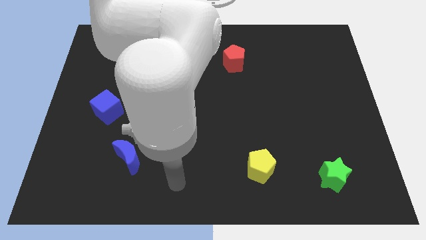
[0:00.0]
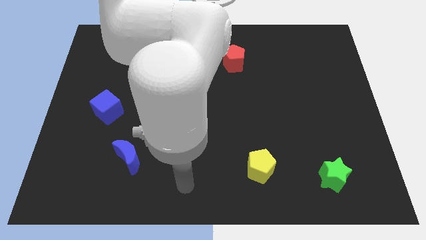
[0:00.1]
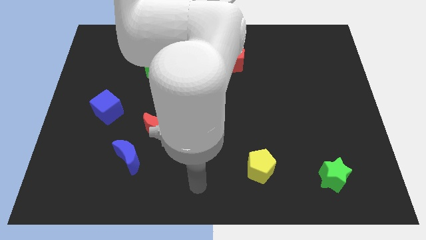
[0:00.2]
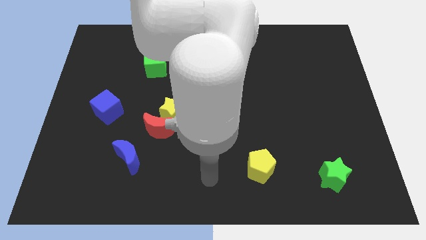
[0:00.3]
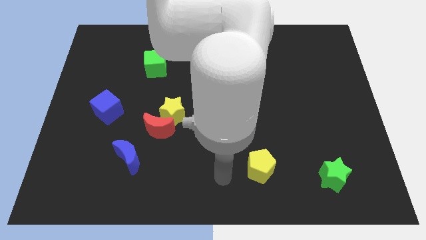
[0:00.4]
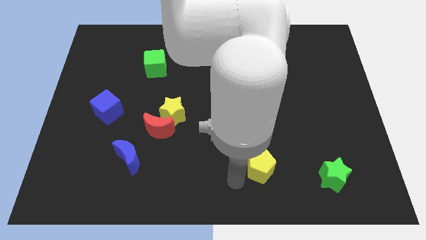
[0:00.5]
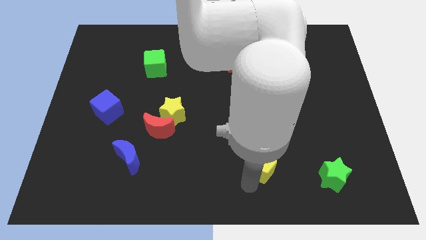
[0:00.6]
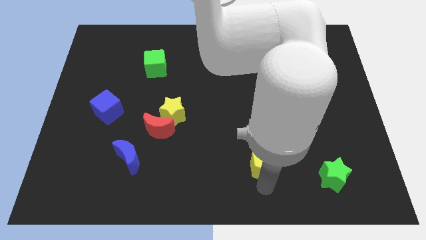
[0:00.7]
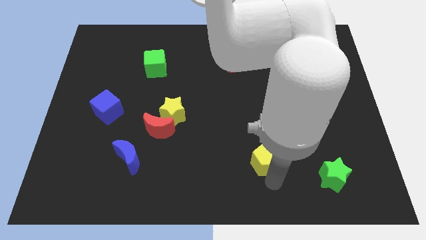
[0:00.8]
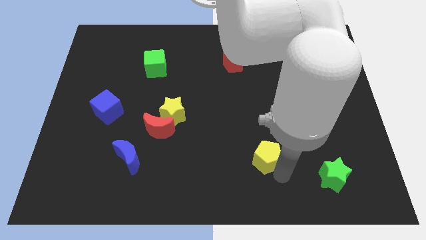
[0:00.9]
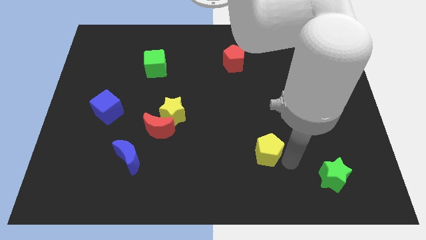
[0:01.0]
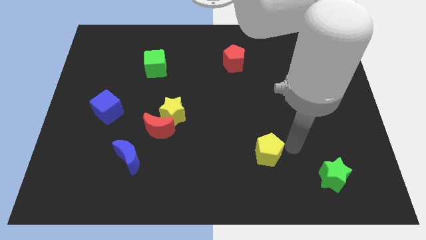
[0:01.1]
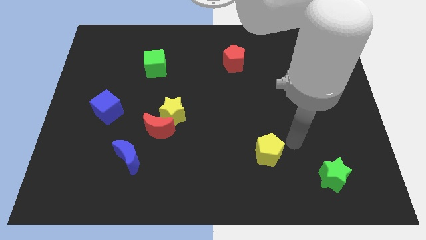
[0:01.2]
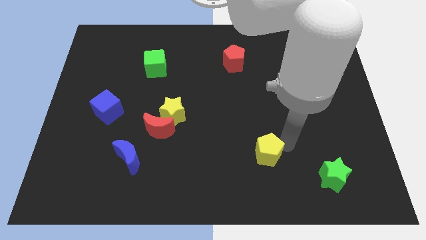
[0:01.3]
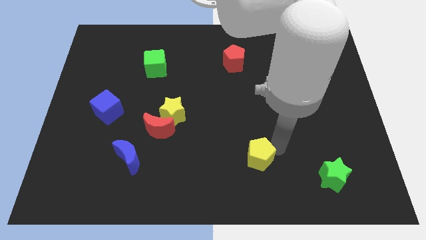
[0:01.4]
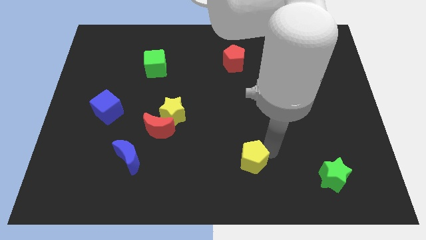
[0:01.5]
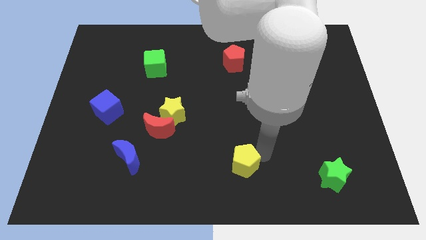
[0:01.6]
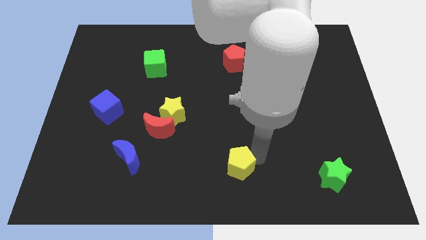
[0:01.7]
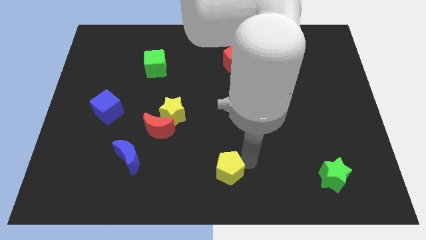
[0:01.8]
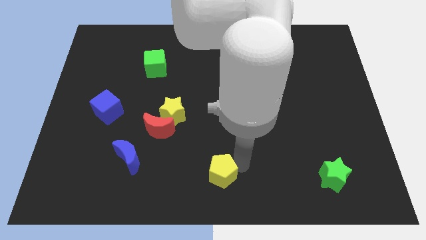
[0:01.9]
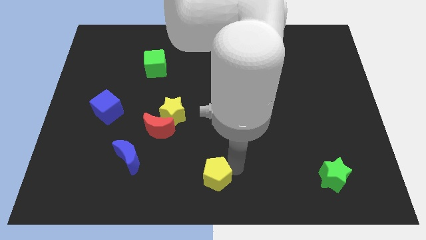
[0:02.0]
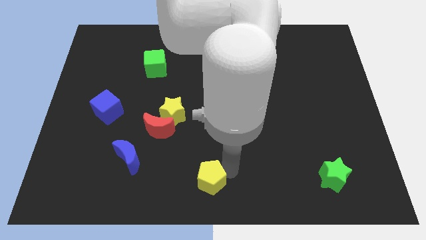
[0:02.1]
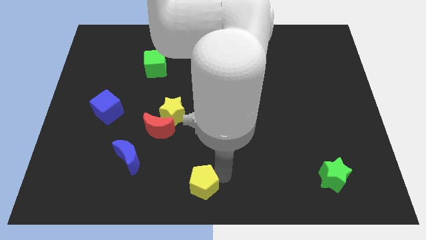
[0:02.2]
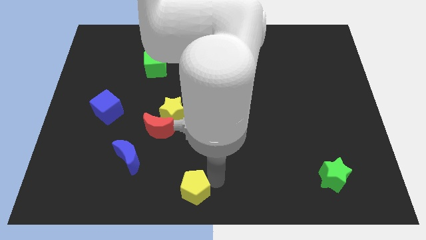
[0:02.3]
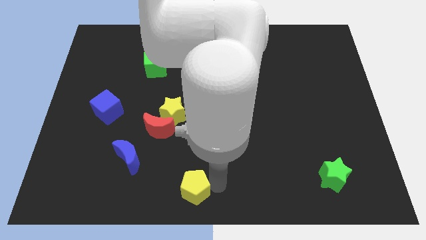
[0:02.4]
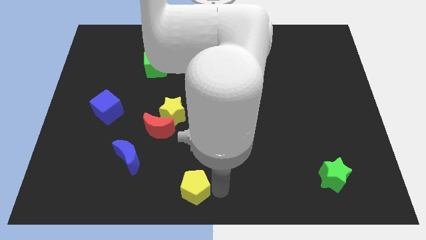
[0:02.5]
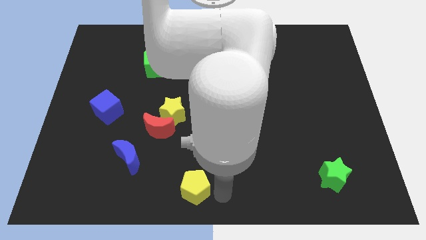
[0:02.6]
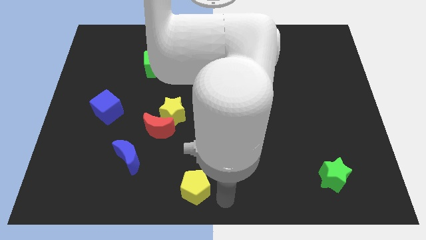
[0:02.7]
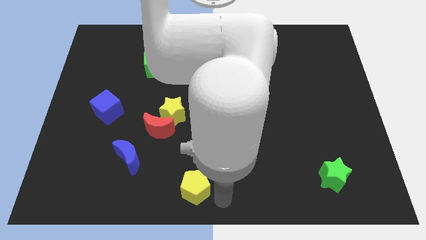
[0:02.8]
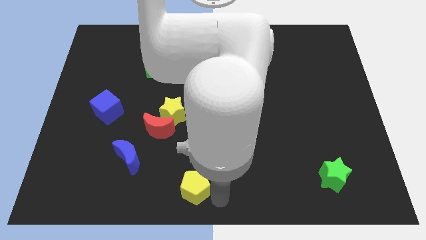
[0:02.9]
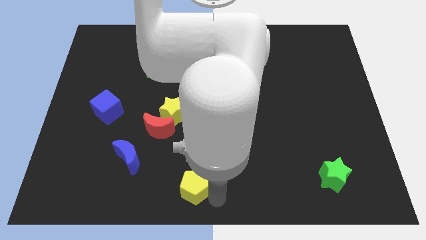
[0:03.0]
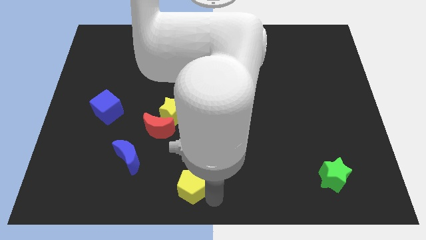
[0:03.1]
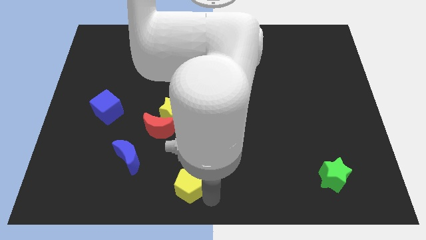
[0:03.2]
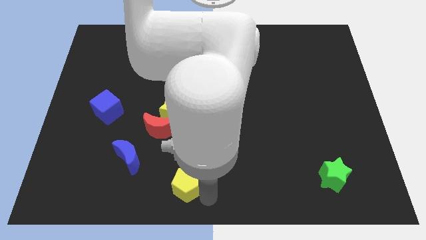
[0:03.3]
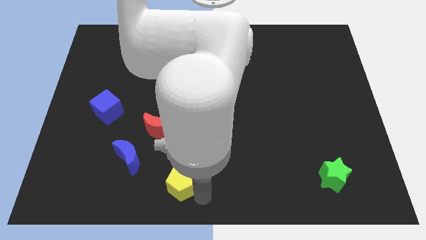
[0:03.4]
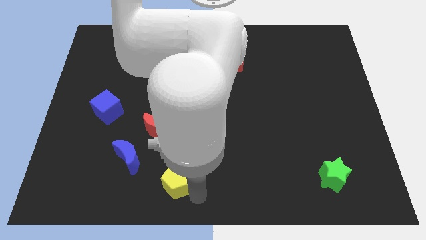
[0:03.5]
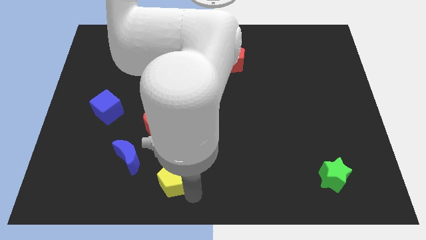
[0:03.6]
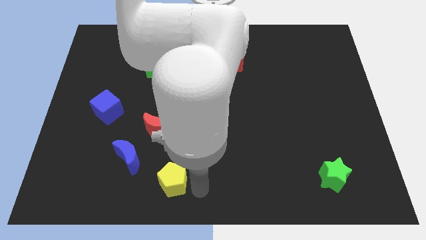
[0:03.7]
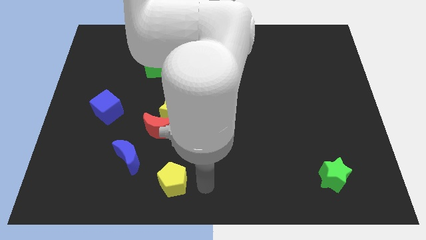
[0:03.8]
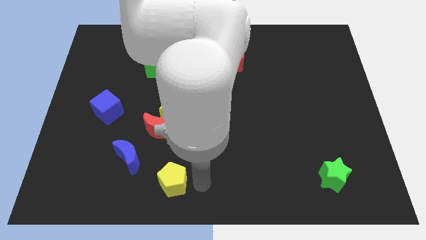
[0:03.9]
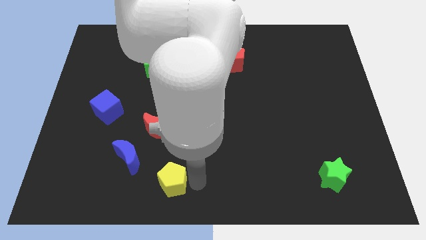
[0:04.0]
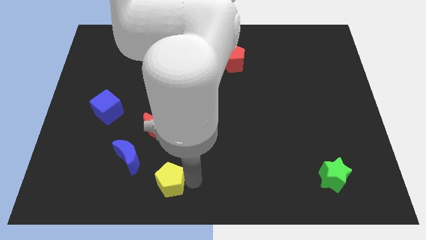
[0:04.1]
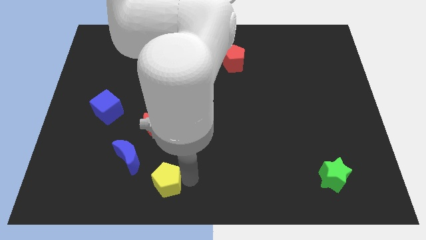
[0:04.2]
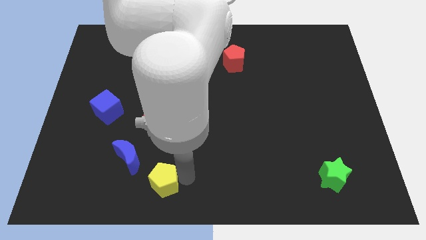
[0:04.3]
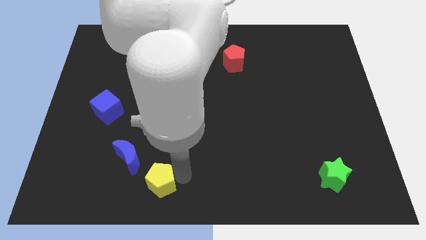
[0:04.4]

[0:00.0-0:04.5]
slide the yellow pentagon to the left

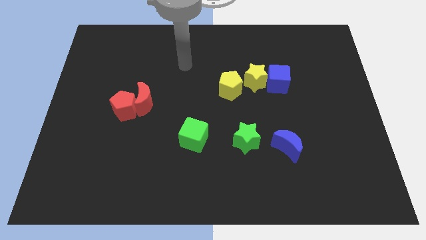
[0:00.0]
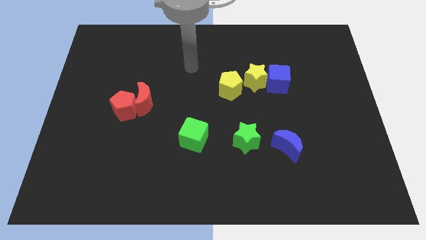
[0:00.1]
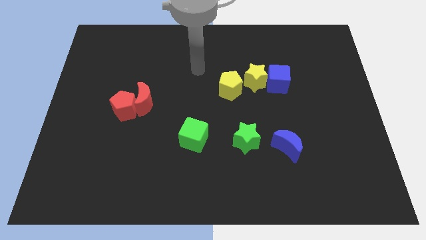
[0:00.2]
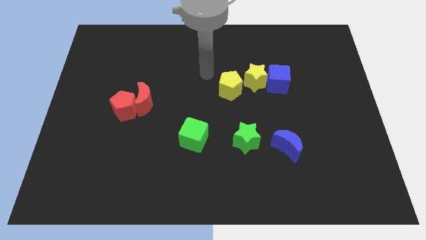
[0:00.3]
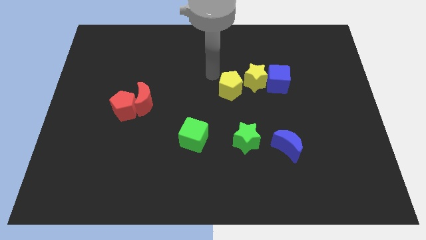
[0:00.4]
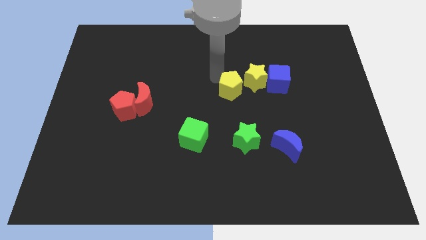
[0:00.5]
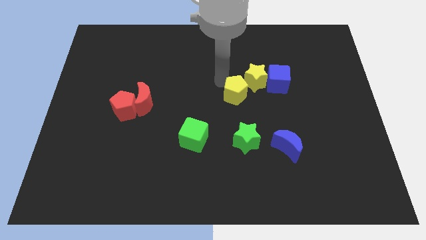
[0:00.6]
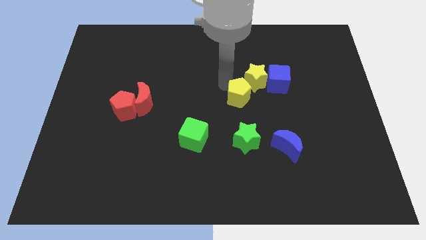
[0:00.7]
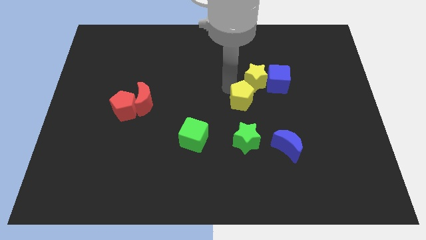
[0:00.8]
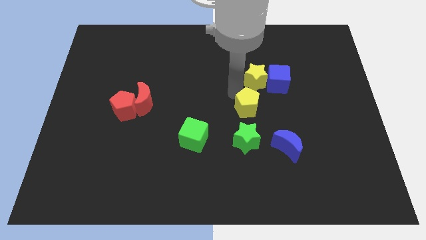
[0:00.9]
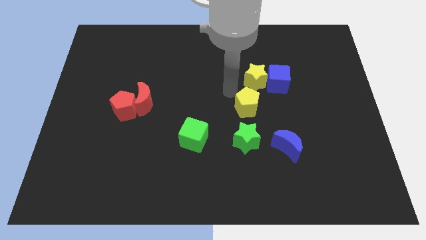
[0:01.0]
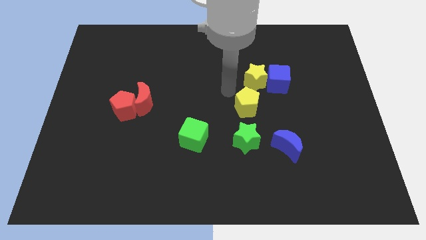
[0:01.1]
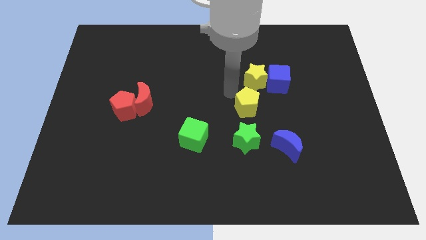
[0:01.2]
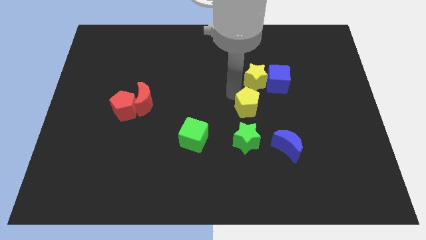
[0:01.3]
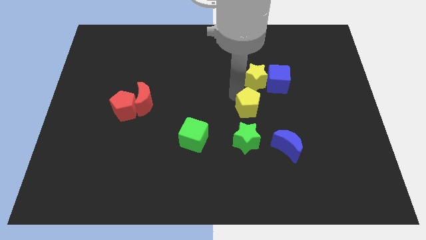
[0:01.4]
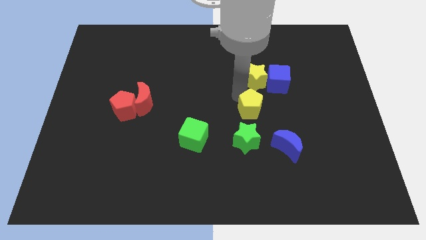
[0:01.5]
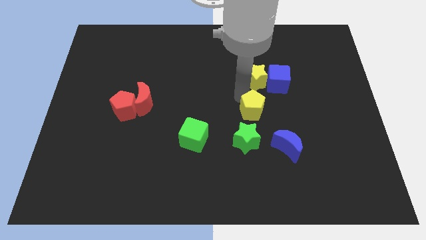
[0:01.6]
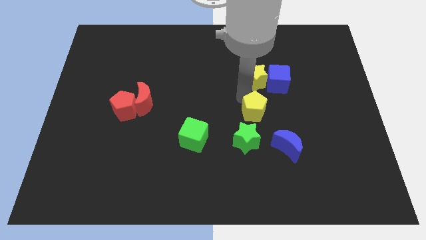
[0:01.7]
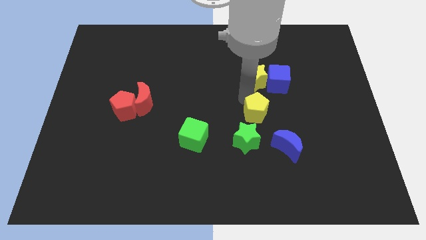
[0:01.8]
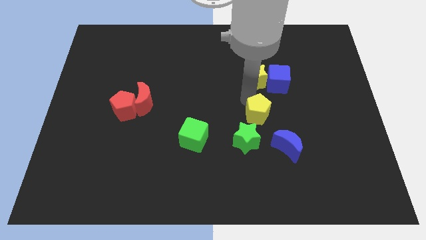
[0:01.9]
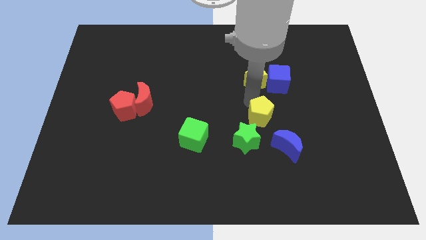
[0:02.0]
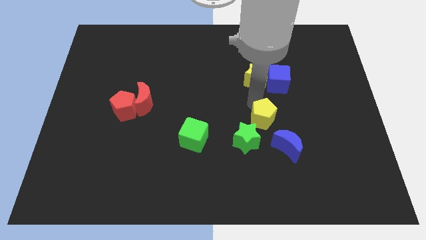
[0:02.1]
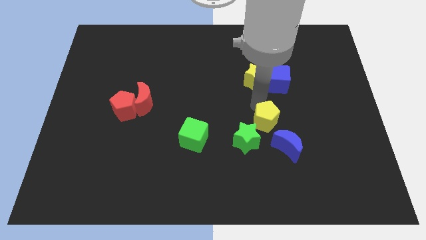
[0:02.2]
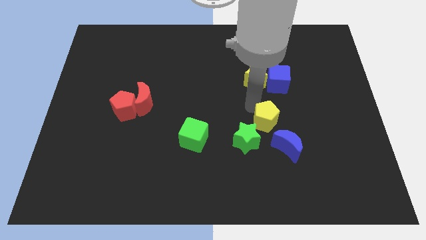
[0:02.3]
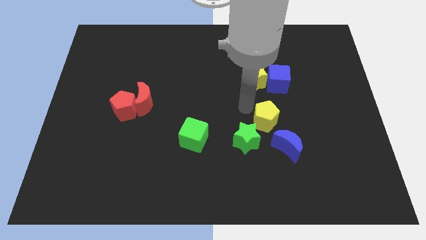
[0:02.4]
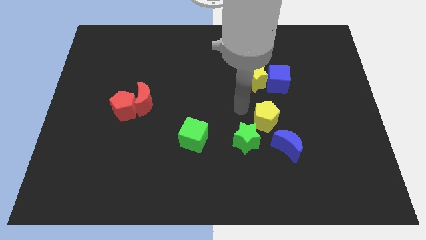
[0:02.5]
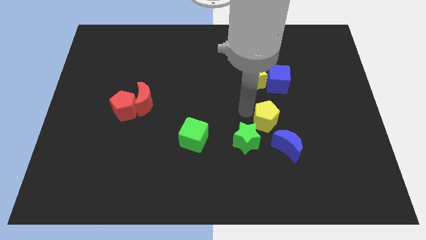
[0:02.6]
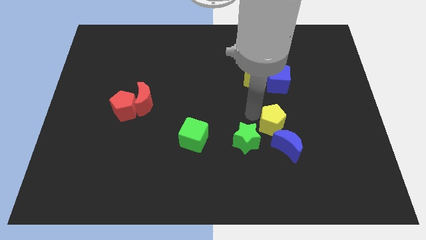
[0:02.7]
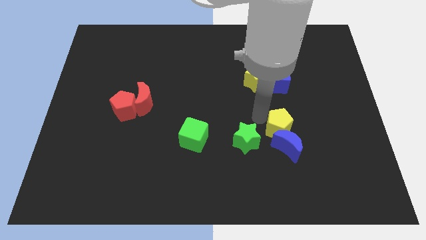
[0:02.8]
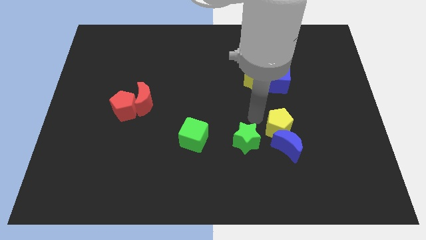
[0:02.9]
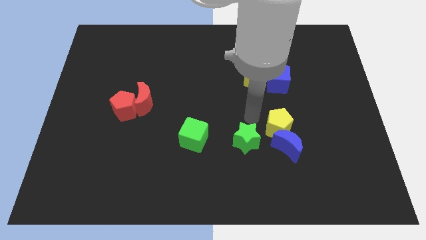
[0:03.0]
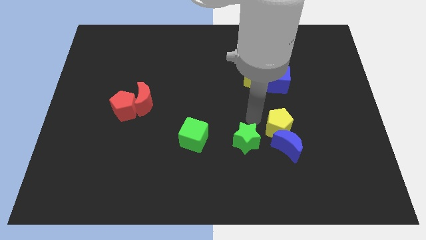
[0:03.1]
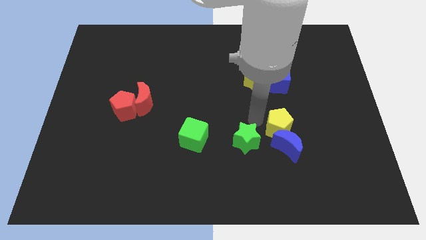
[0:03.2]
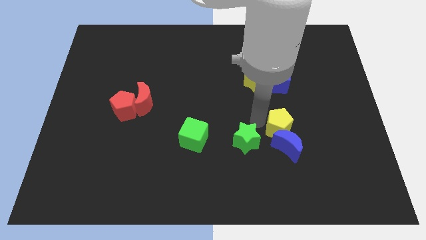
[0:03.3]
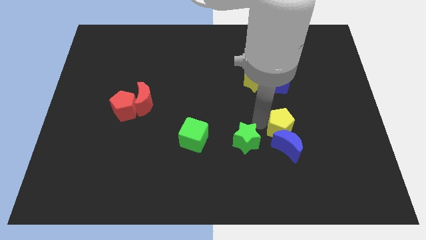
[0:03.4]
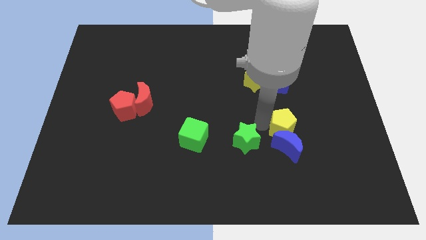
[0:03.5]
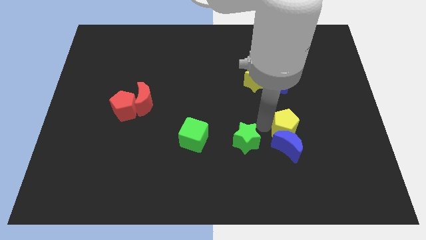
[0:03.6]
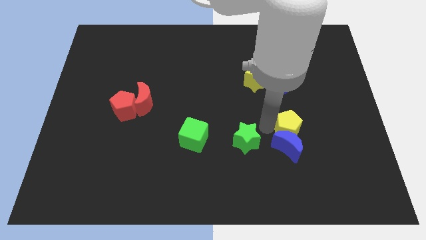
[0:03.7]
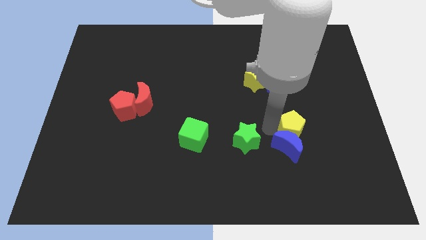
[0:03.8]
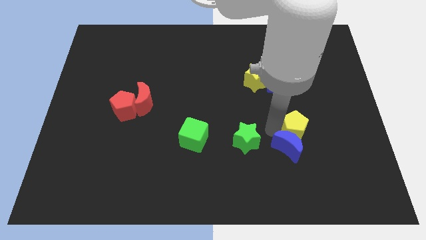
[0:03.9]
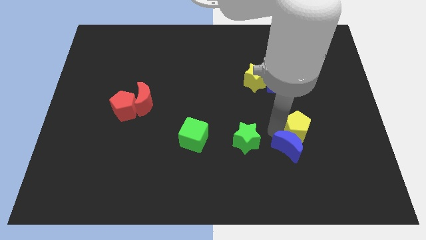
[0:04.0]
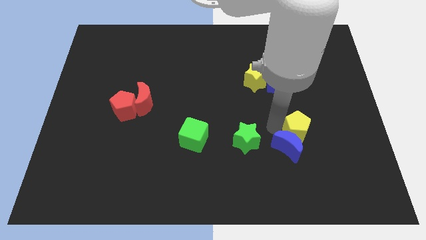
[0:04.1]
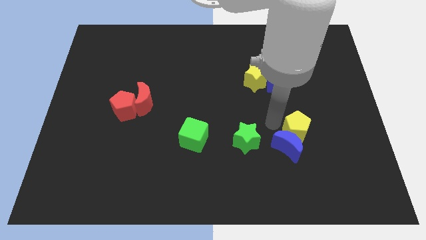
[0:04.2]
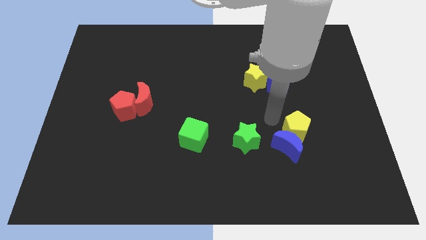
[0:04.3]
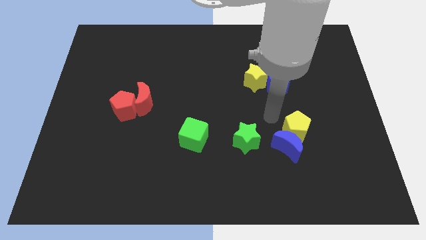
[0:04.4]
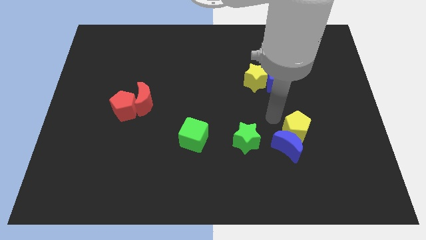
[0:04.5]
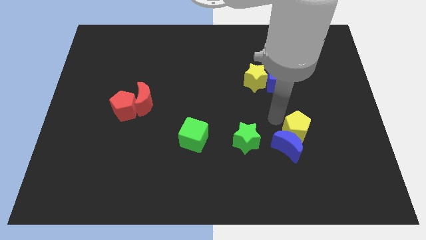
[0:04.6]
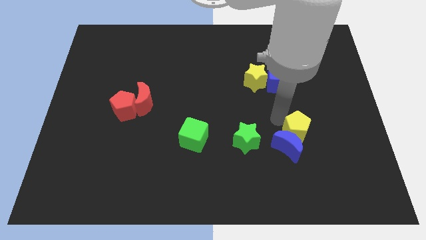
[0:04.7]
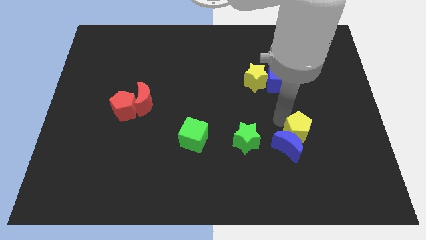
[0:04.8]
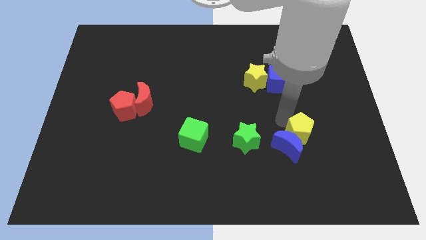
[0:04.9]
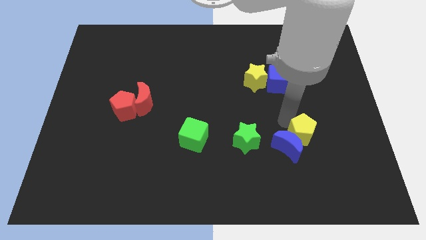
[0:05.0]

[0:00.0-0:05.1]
move the yellow pentagon down and then to the right
